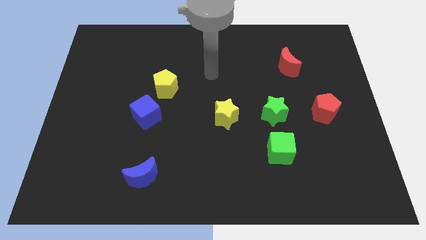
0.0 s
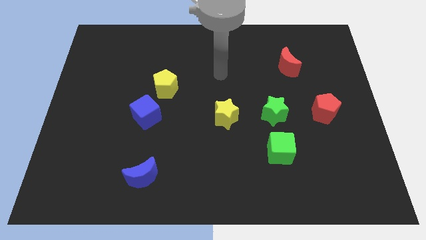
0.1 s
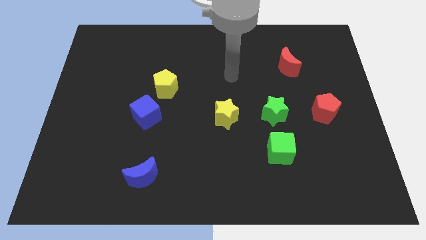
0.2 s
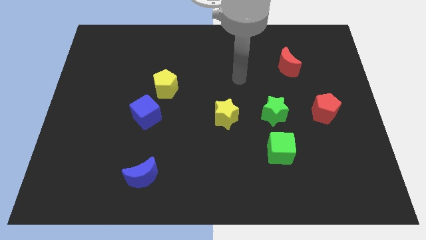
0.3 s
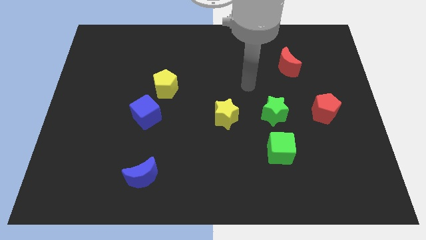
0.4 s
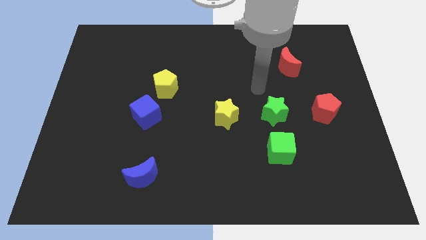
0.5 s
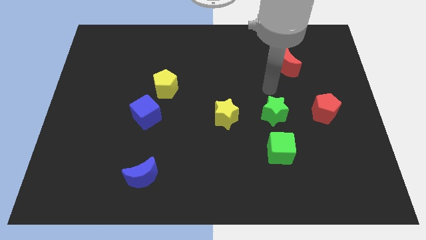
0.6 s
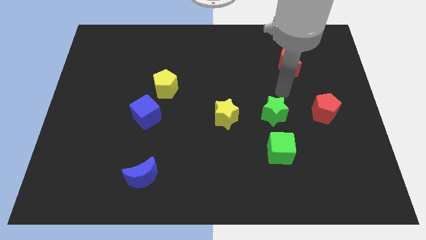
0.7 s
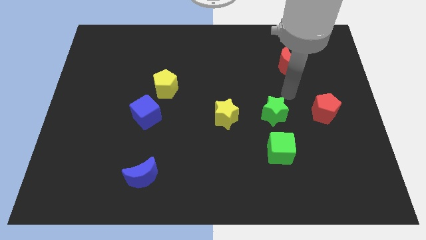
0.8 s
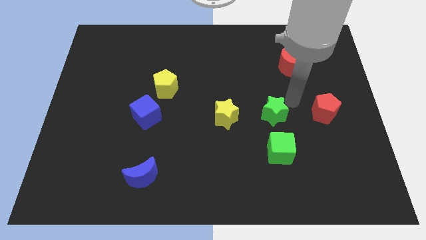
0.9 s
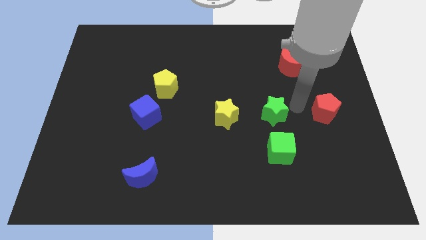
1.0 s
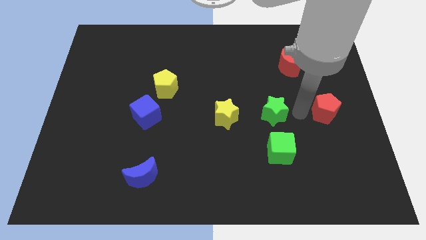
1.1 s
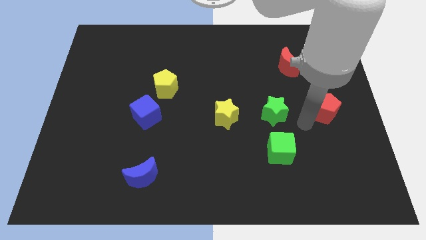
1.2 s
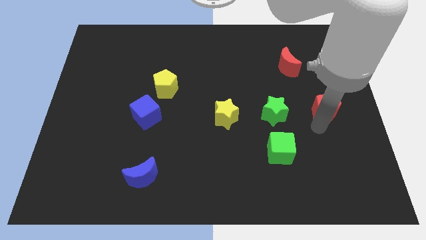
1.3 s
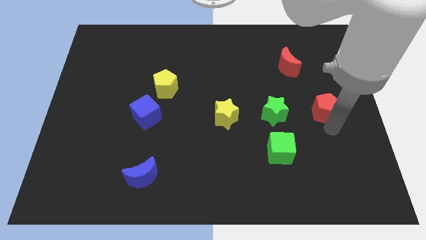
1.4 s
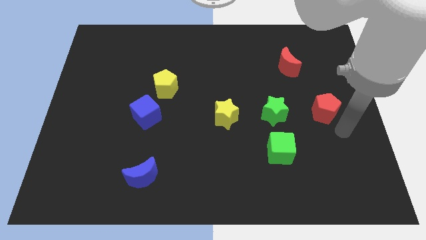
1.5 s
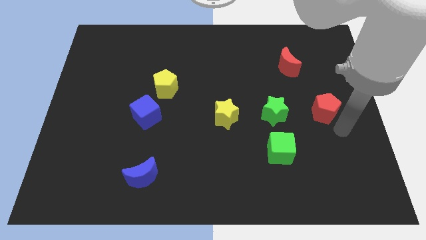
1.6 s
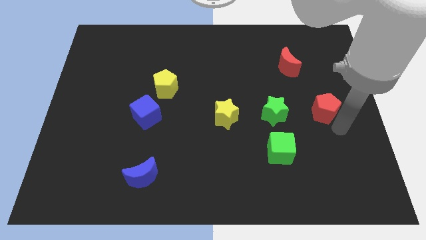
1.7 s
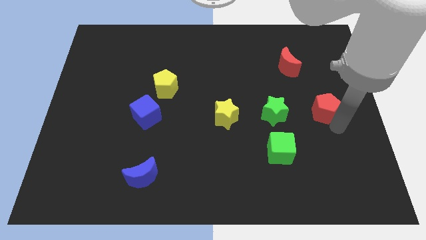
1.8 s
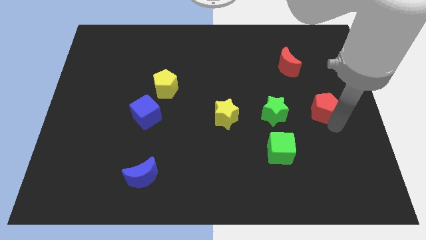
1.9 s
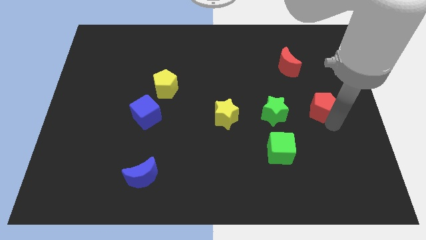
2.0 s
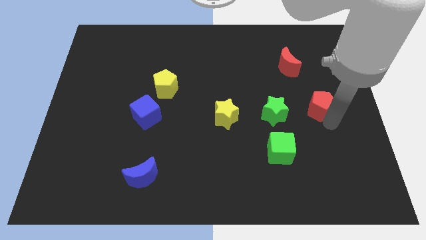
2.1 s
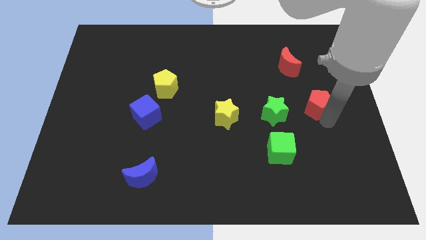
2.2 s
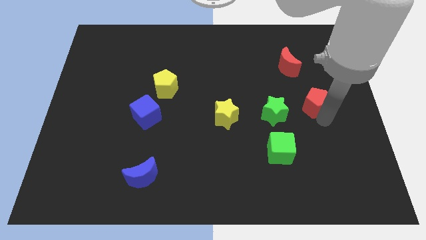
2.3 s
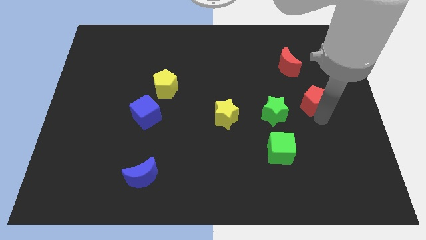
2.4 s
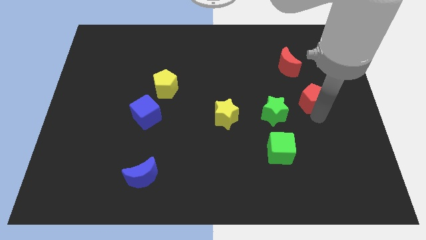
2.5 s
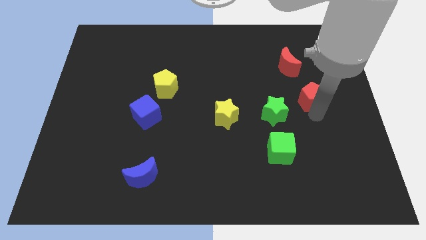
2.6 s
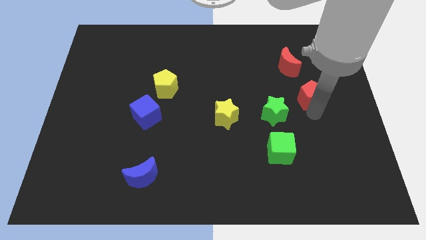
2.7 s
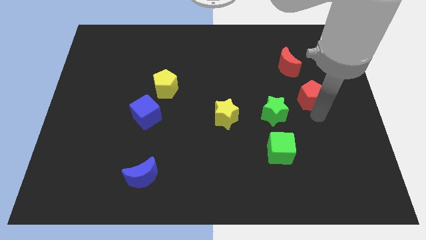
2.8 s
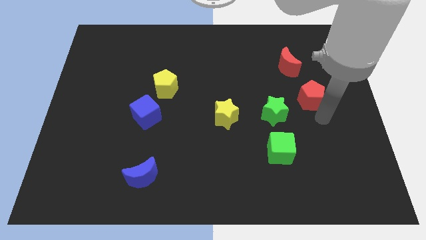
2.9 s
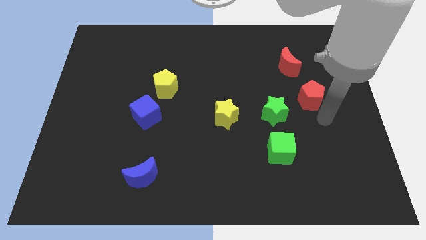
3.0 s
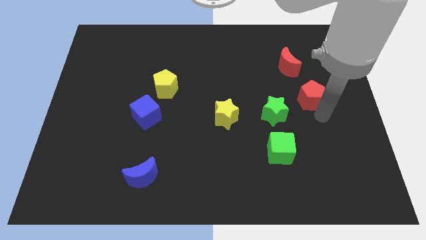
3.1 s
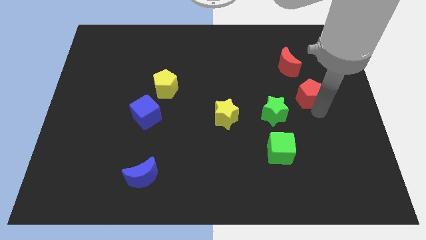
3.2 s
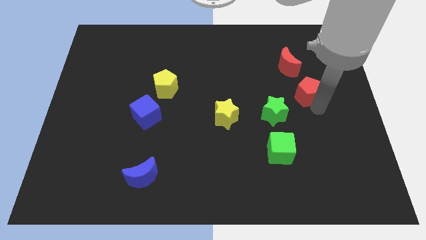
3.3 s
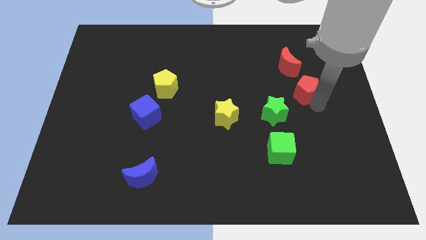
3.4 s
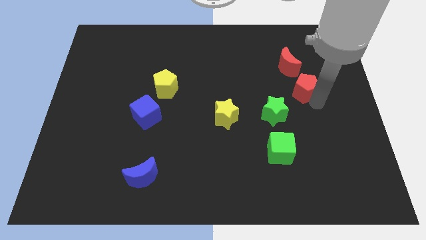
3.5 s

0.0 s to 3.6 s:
slightly move the red pentagon upwards and left

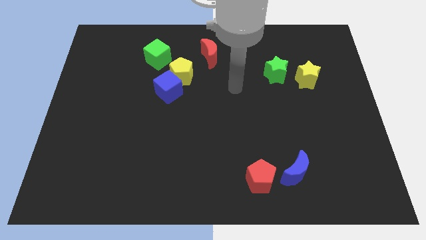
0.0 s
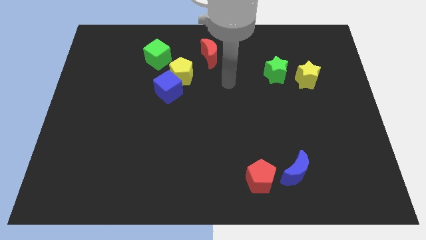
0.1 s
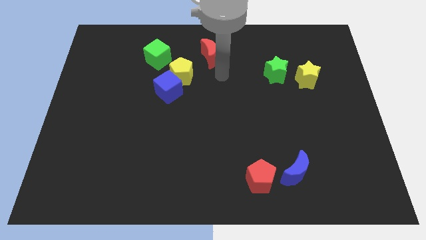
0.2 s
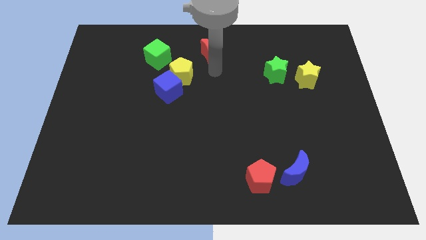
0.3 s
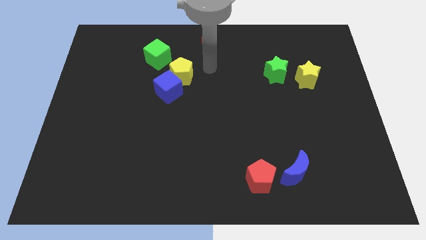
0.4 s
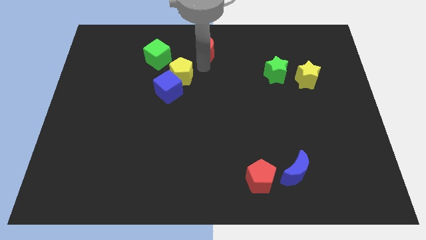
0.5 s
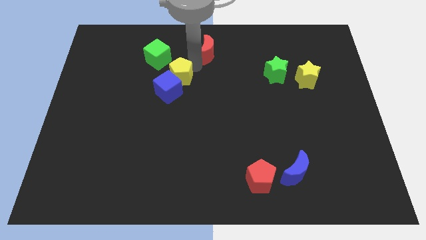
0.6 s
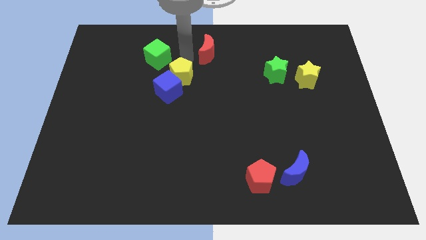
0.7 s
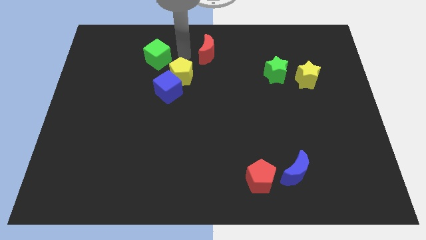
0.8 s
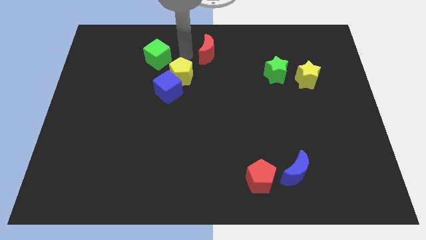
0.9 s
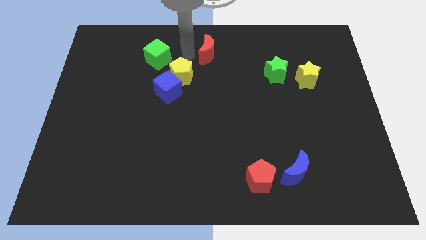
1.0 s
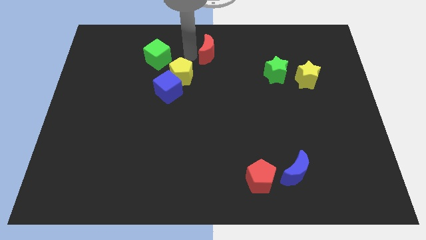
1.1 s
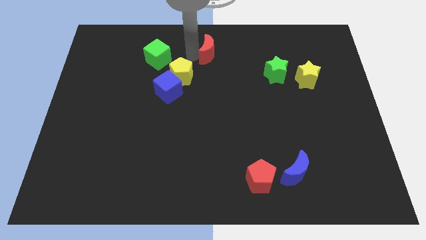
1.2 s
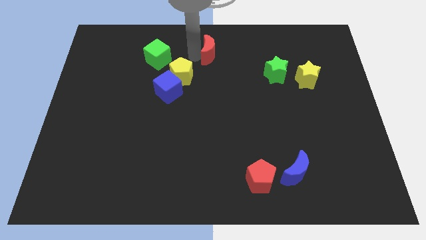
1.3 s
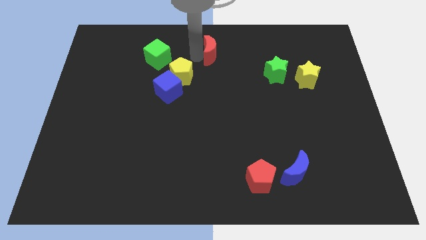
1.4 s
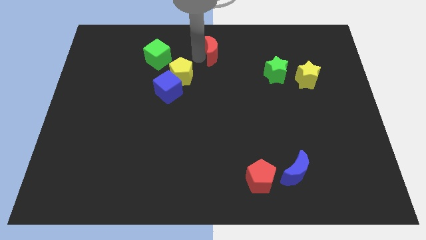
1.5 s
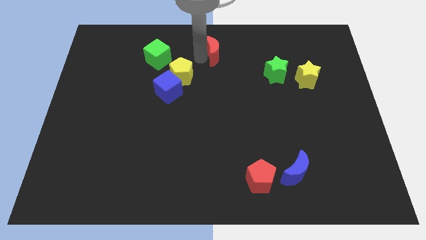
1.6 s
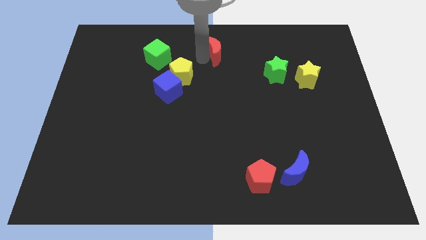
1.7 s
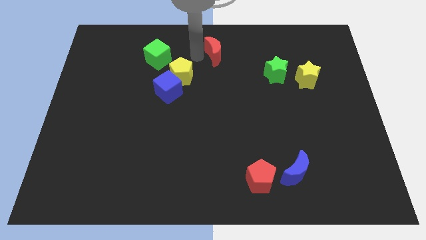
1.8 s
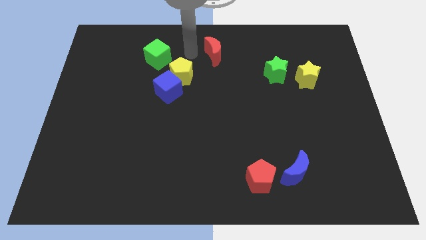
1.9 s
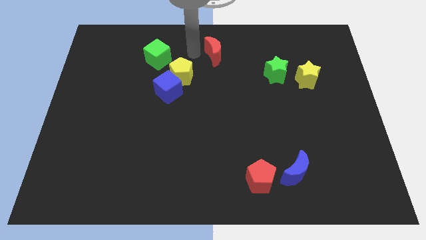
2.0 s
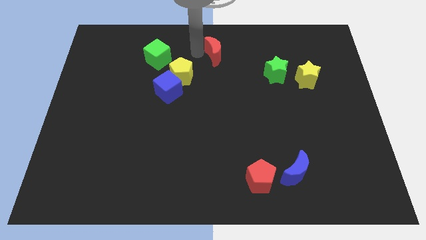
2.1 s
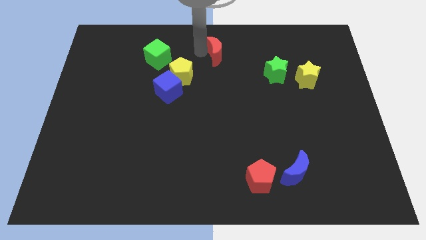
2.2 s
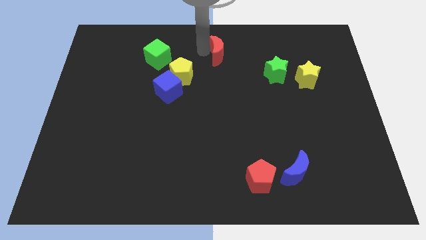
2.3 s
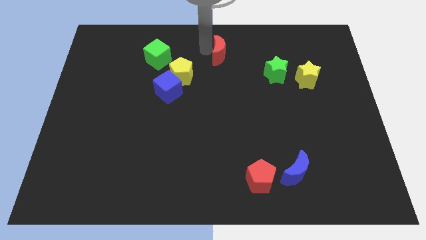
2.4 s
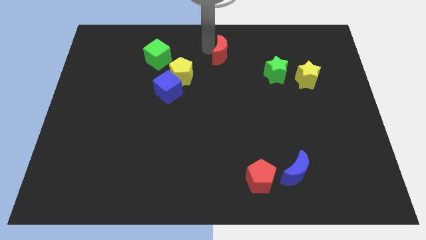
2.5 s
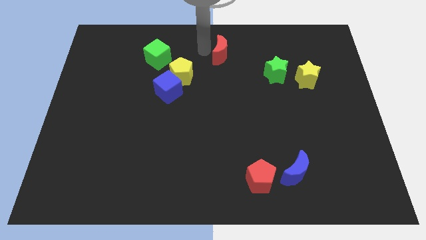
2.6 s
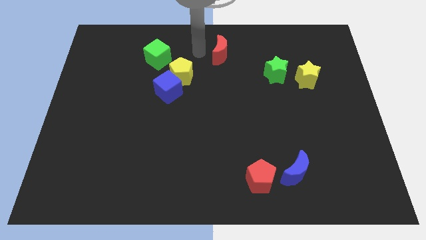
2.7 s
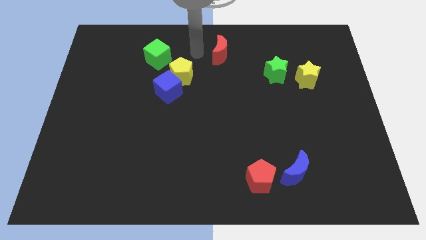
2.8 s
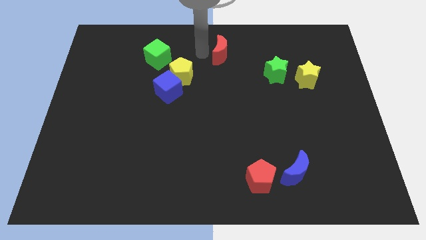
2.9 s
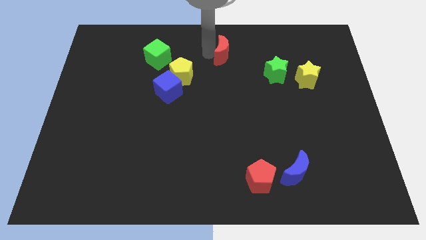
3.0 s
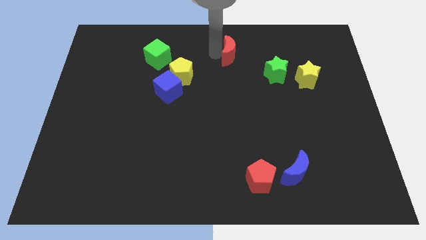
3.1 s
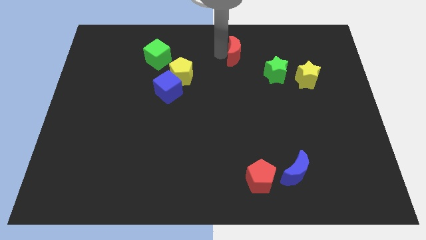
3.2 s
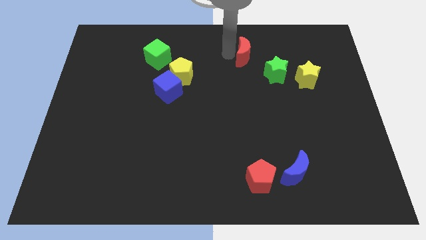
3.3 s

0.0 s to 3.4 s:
push the red moon right somewhat

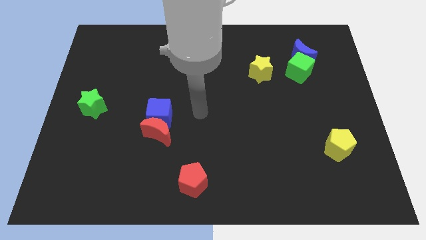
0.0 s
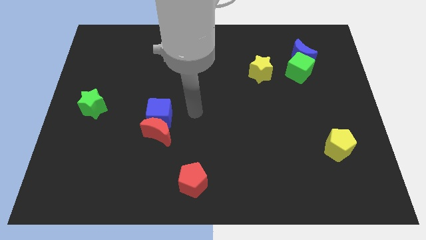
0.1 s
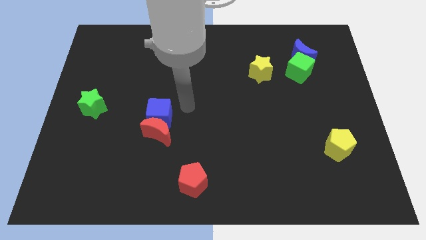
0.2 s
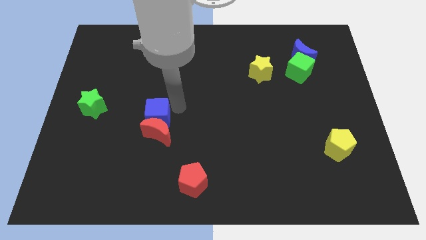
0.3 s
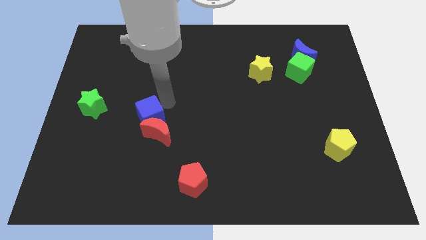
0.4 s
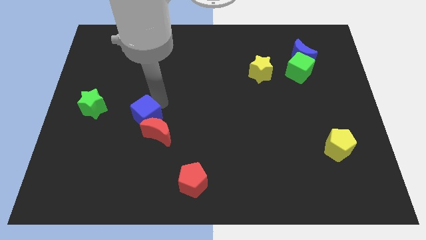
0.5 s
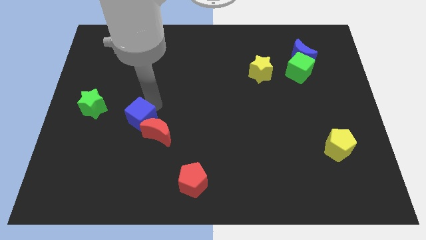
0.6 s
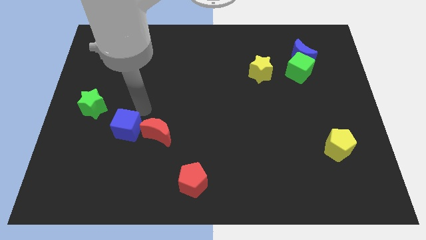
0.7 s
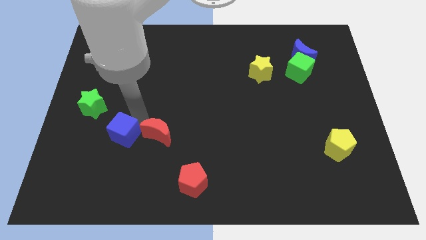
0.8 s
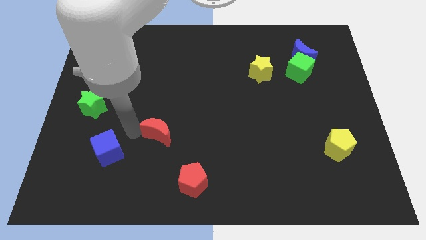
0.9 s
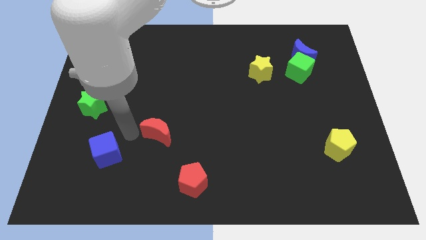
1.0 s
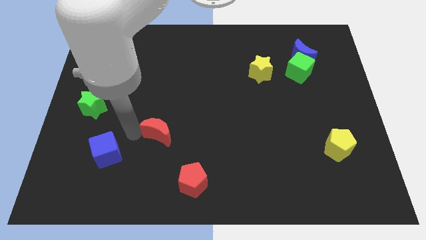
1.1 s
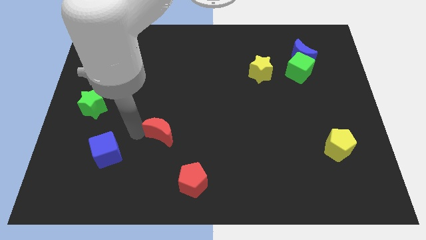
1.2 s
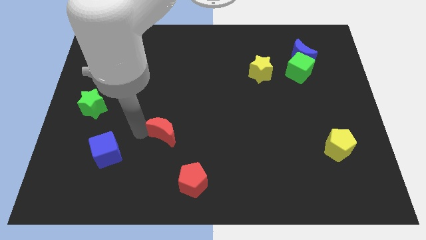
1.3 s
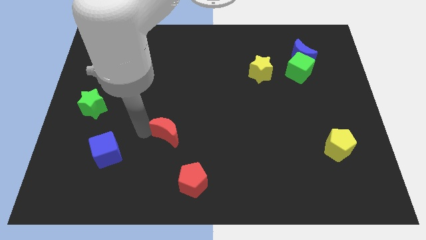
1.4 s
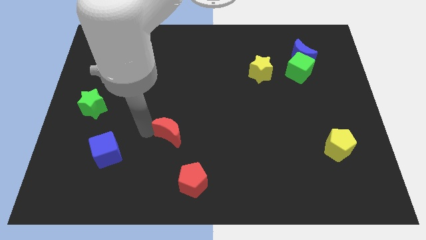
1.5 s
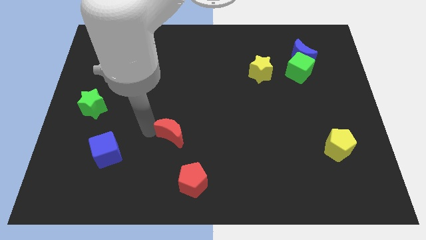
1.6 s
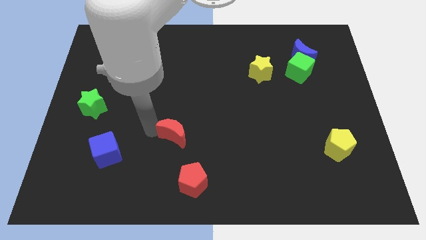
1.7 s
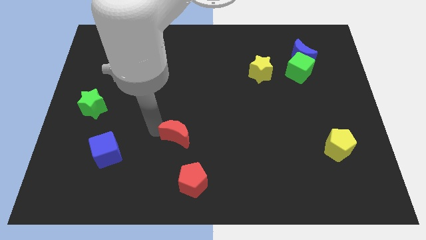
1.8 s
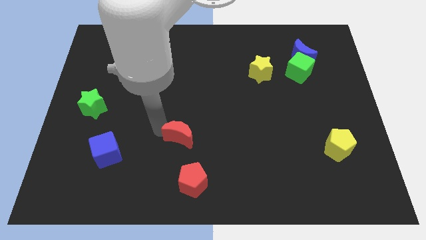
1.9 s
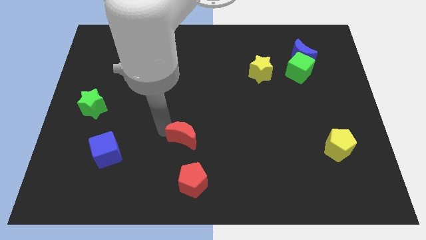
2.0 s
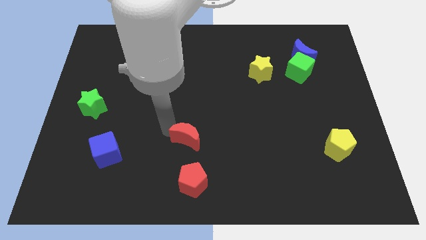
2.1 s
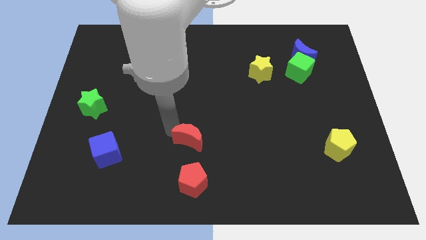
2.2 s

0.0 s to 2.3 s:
move the red moon to the right somewhat
